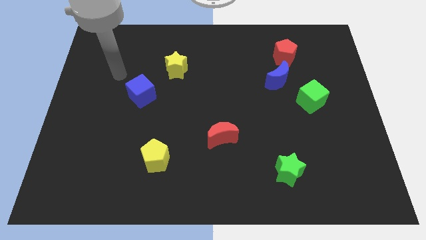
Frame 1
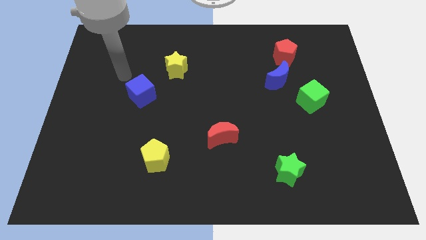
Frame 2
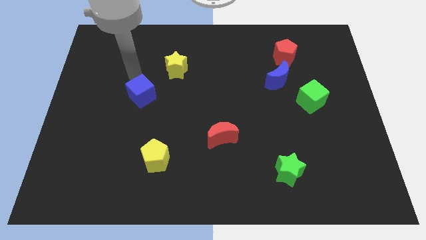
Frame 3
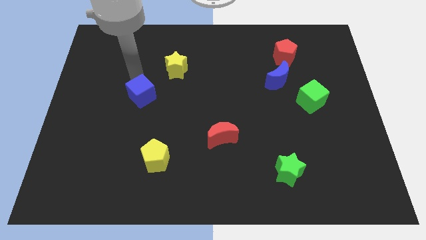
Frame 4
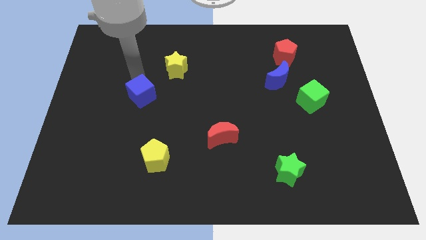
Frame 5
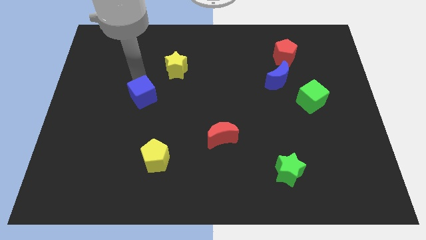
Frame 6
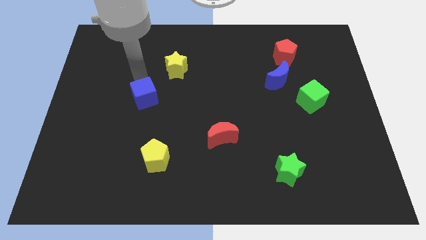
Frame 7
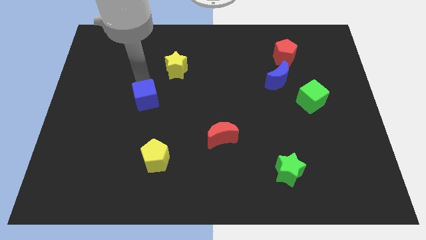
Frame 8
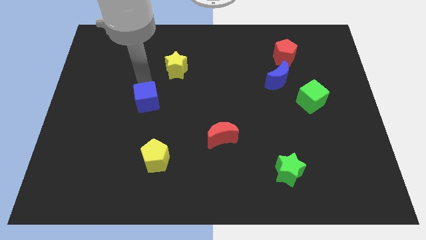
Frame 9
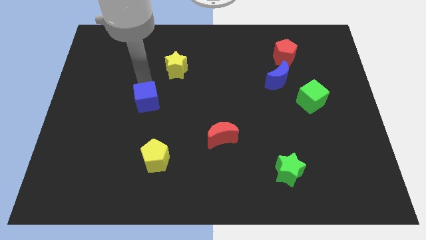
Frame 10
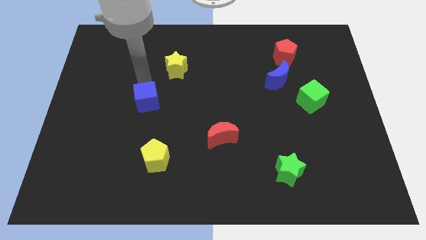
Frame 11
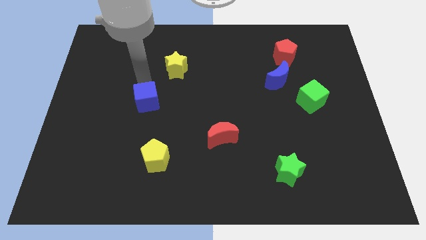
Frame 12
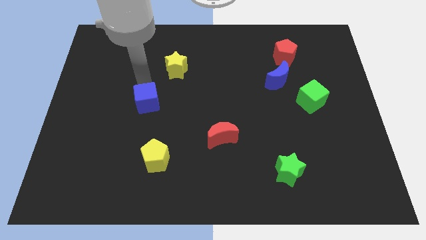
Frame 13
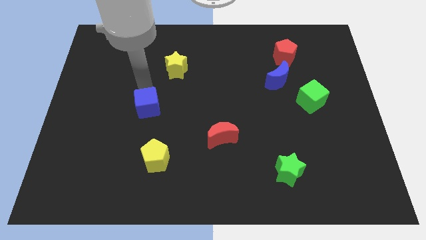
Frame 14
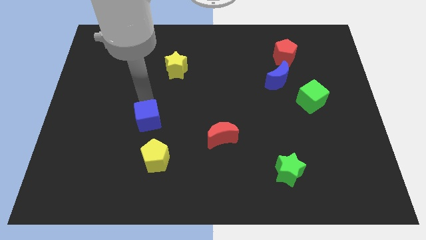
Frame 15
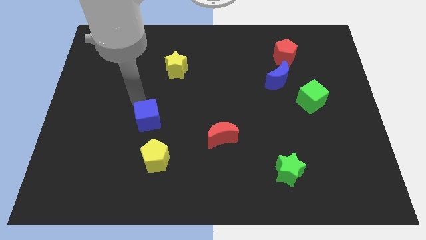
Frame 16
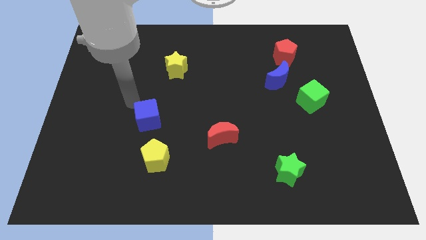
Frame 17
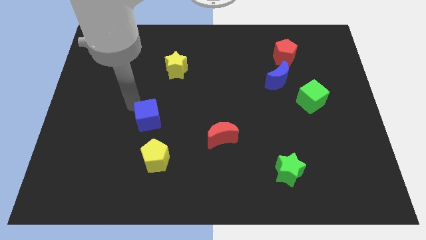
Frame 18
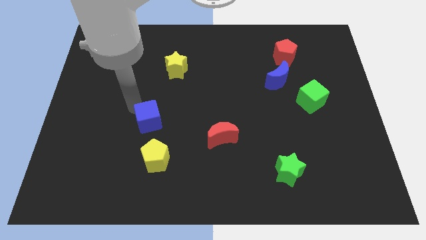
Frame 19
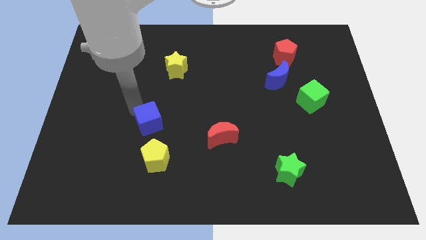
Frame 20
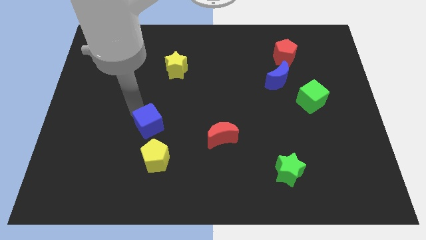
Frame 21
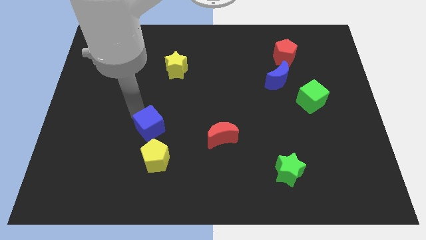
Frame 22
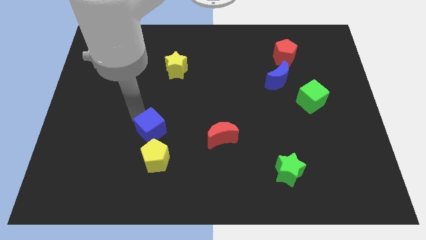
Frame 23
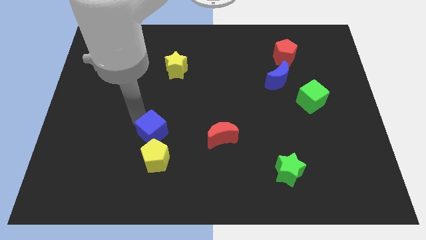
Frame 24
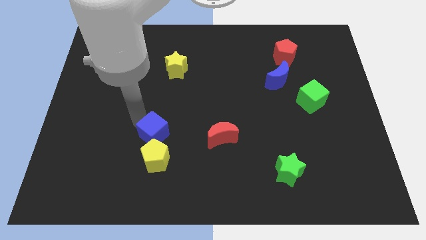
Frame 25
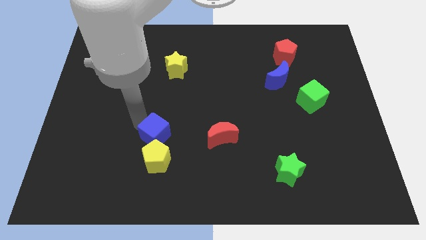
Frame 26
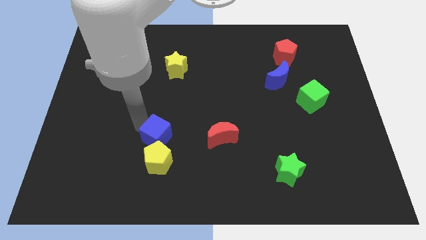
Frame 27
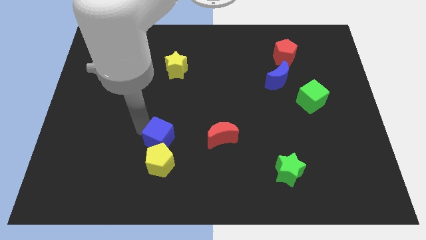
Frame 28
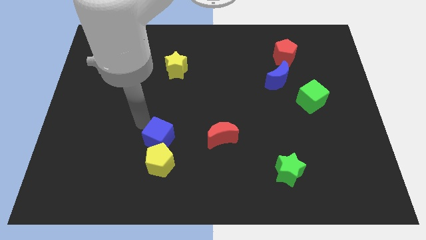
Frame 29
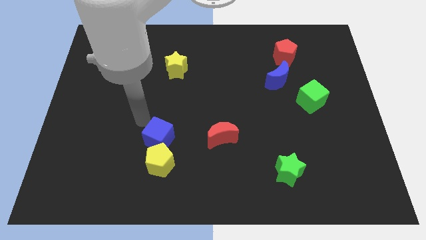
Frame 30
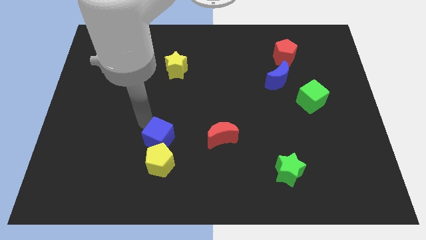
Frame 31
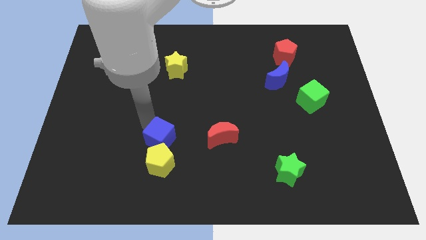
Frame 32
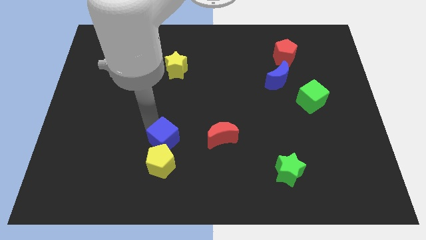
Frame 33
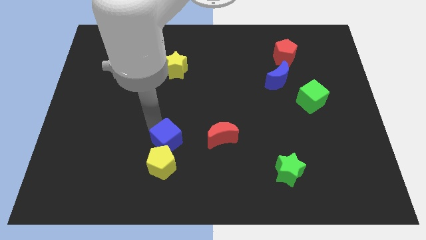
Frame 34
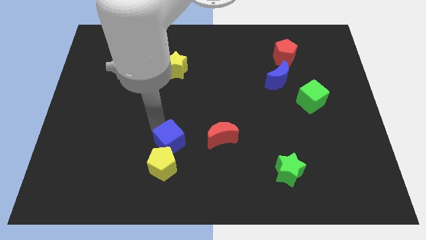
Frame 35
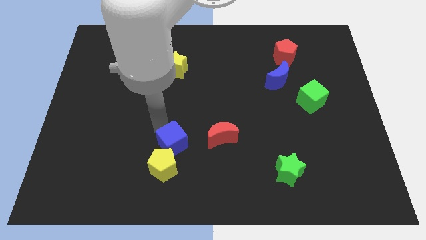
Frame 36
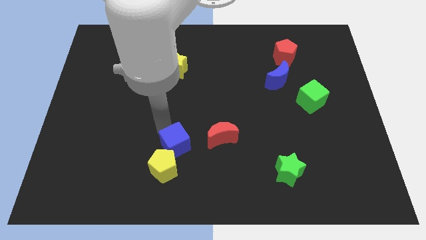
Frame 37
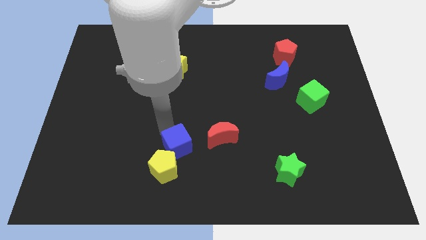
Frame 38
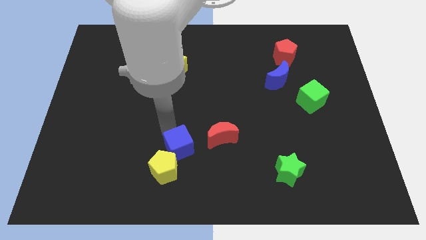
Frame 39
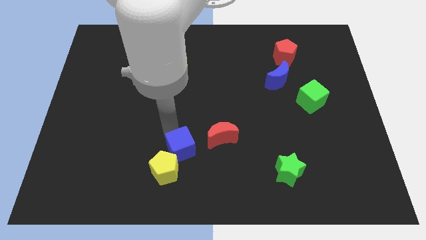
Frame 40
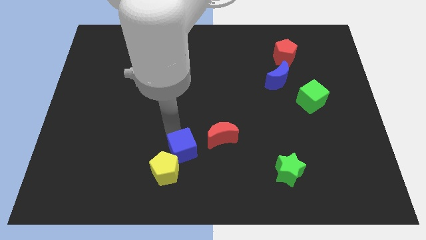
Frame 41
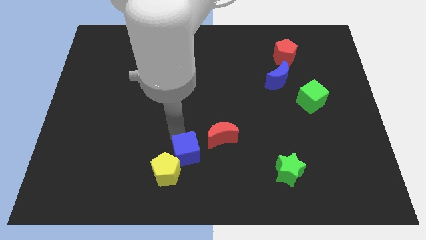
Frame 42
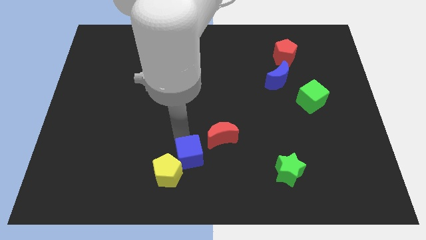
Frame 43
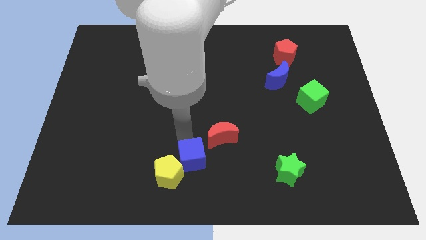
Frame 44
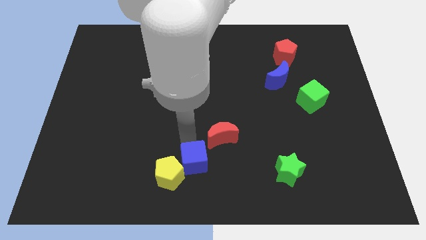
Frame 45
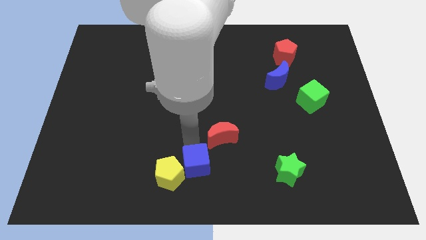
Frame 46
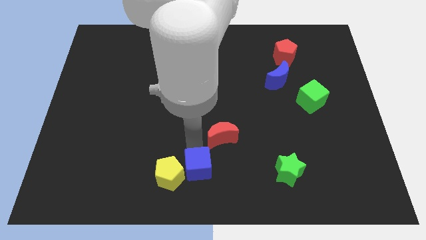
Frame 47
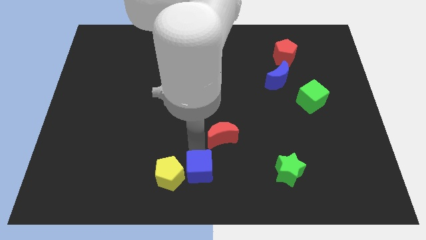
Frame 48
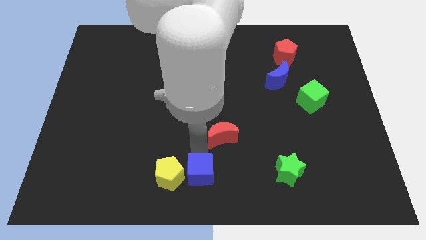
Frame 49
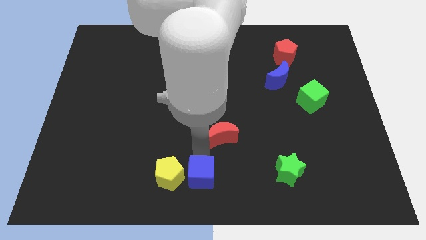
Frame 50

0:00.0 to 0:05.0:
push the blue cube to the bottom right side of the yellow pentagon

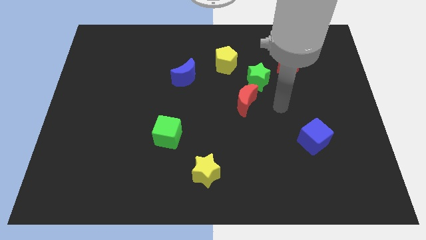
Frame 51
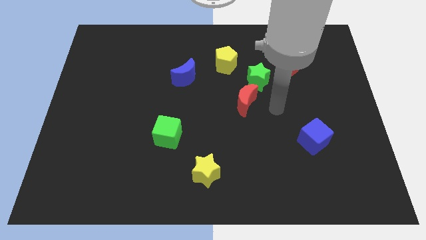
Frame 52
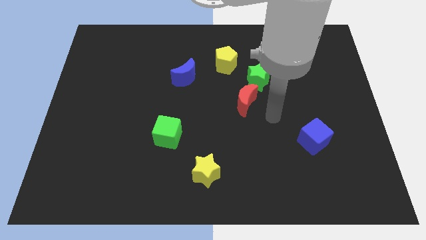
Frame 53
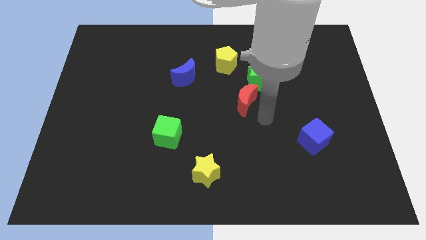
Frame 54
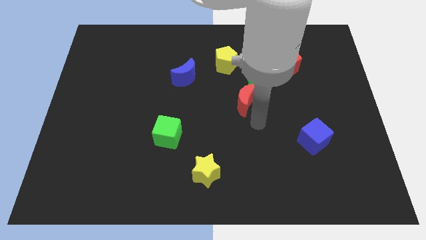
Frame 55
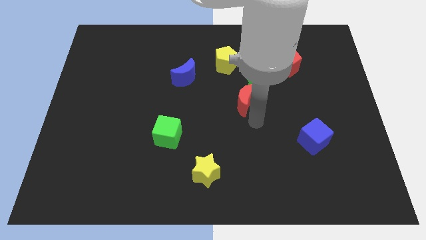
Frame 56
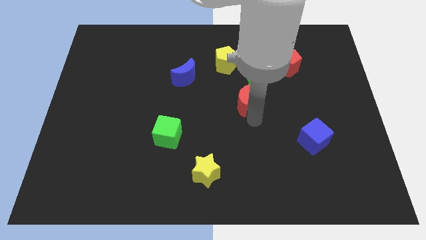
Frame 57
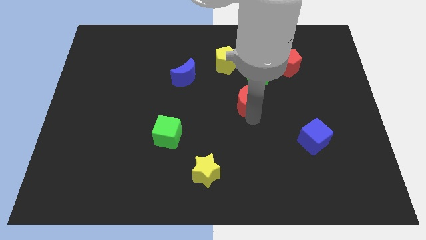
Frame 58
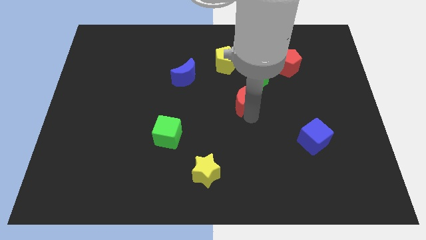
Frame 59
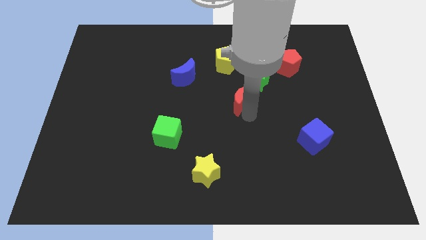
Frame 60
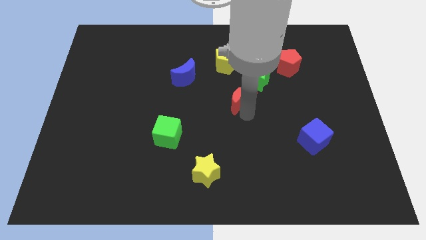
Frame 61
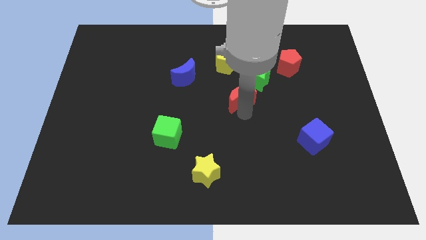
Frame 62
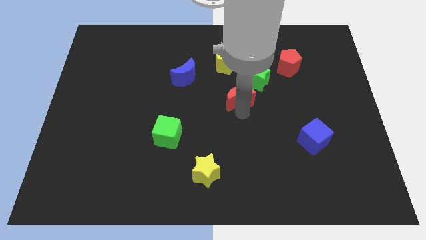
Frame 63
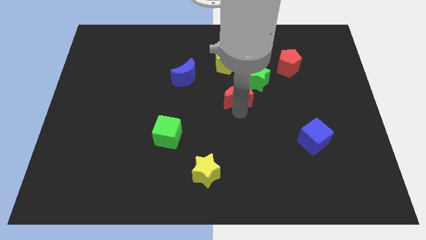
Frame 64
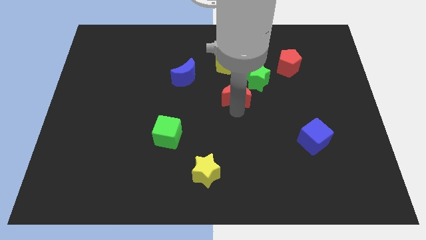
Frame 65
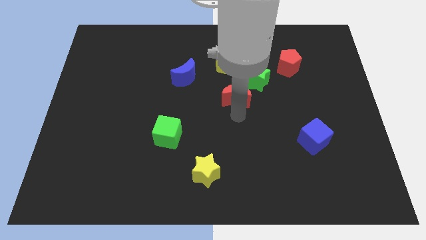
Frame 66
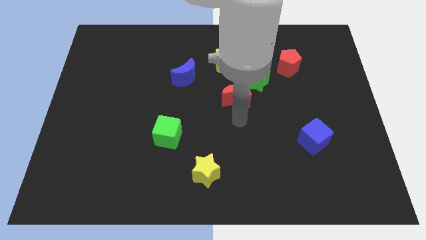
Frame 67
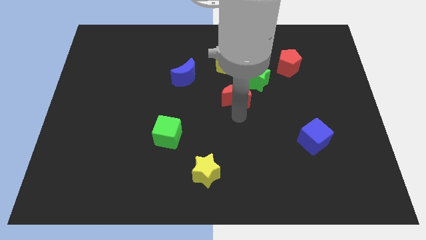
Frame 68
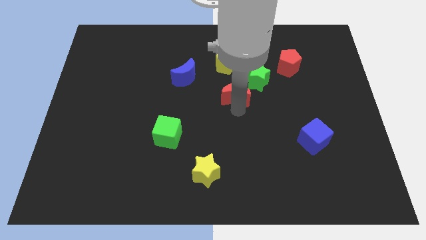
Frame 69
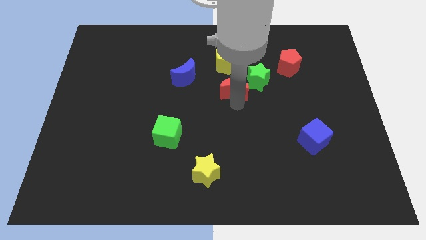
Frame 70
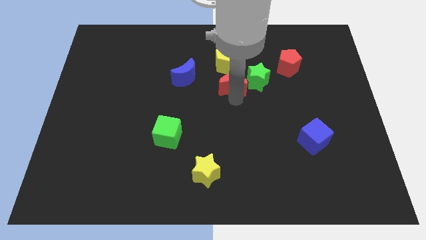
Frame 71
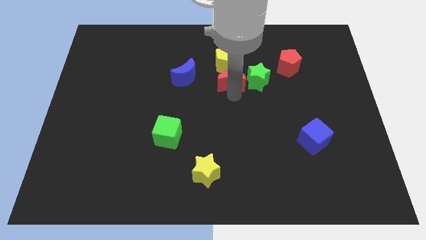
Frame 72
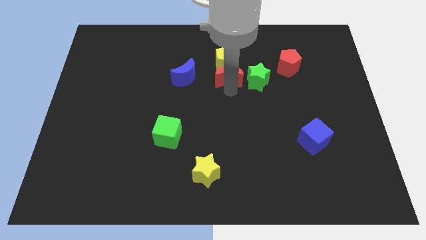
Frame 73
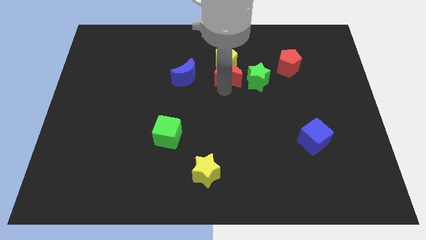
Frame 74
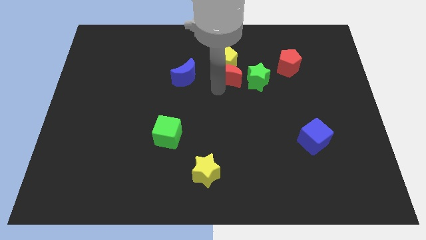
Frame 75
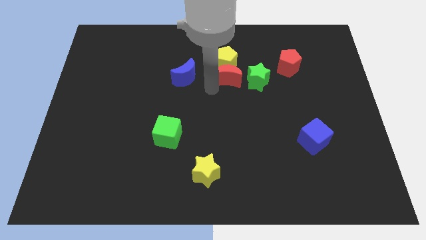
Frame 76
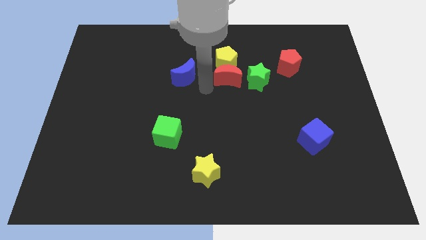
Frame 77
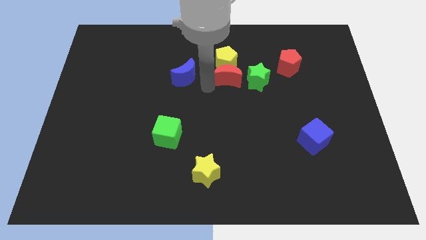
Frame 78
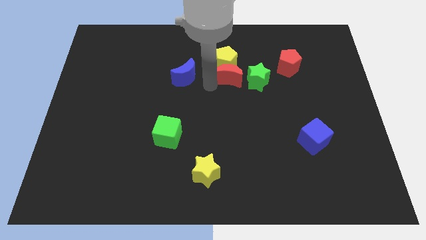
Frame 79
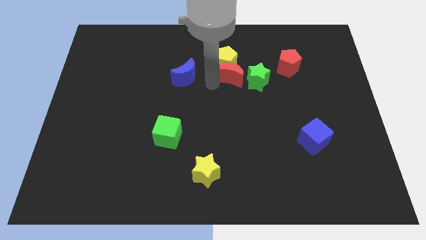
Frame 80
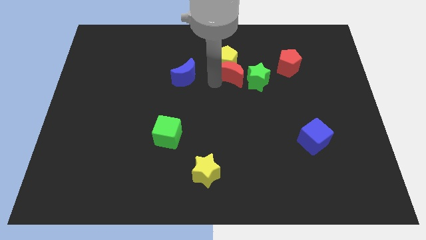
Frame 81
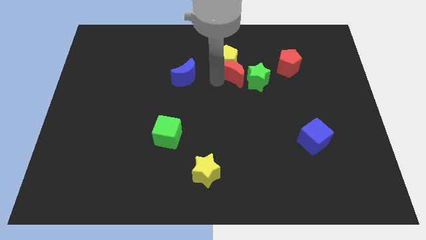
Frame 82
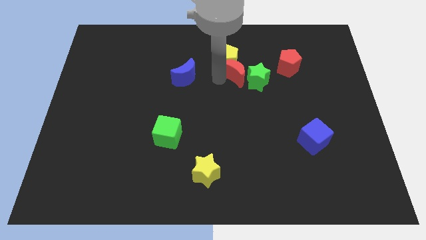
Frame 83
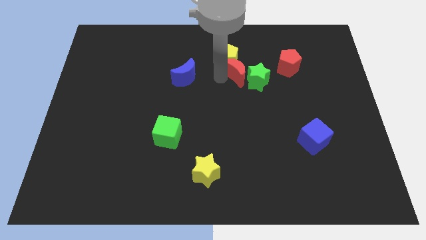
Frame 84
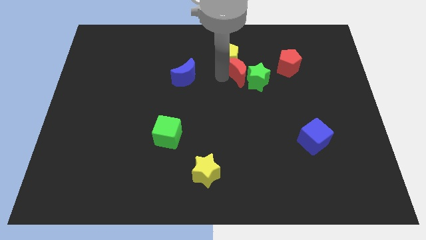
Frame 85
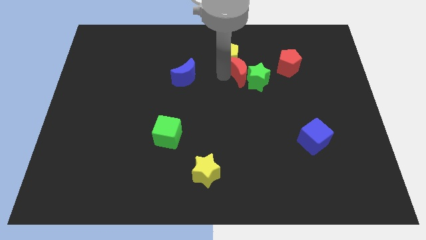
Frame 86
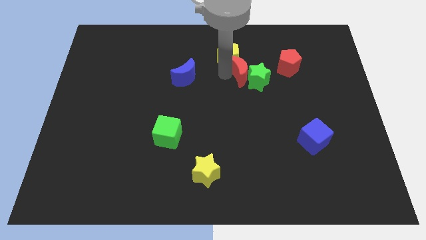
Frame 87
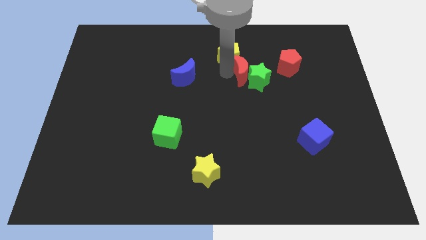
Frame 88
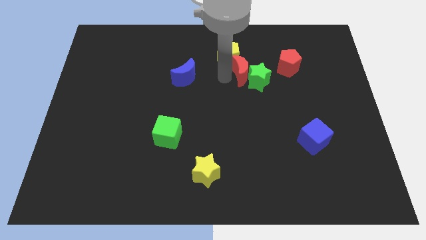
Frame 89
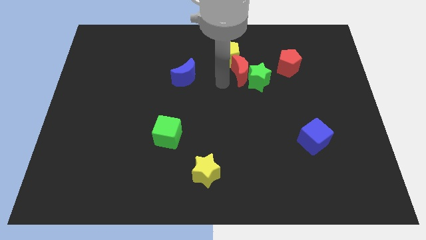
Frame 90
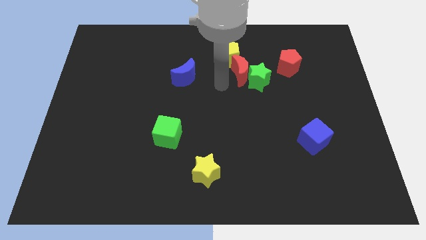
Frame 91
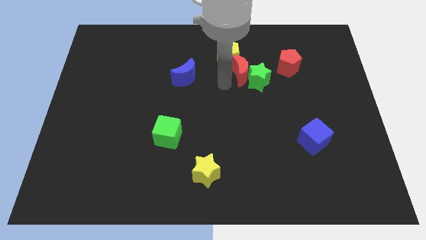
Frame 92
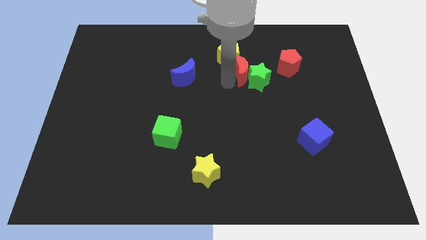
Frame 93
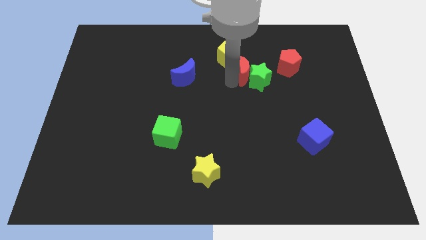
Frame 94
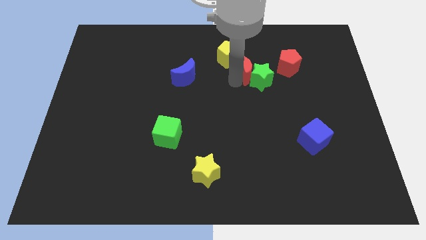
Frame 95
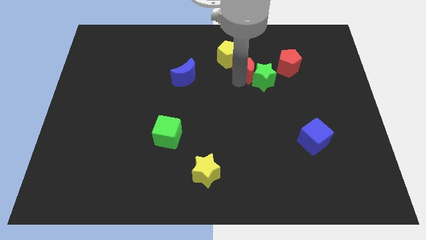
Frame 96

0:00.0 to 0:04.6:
push the red moon to the right of the yellow pentagon
